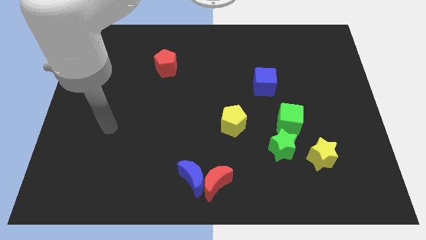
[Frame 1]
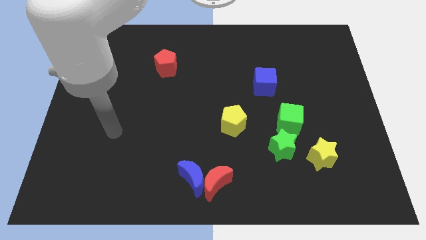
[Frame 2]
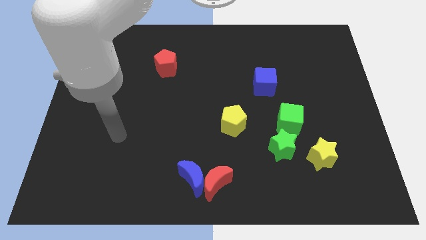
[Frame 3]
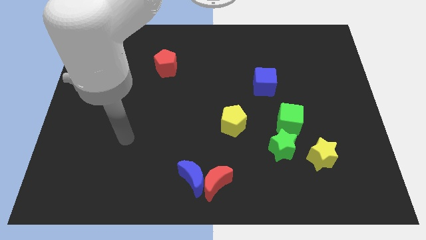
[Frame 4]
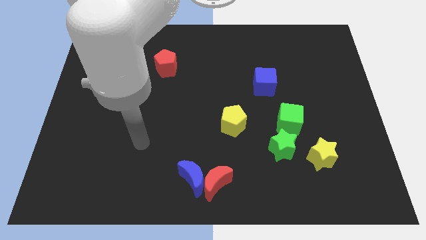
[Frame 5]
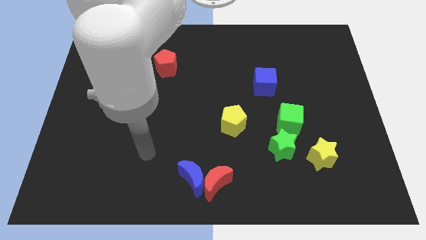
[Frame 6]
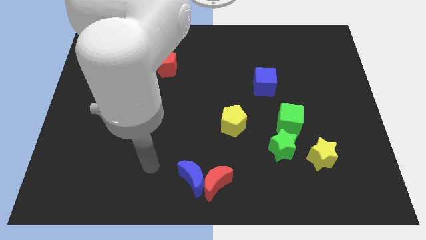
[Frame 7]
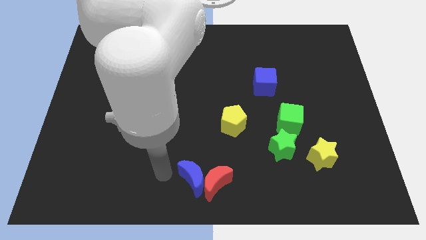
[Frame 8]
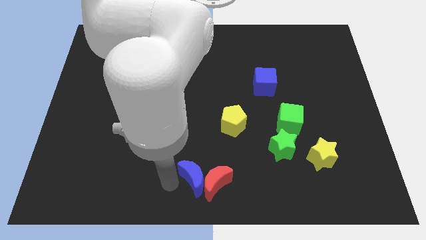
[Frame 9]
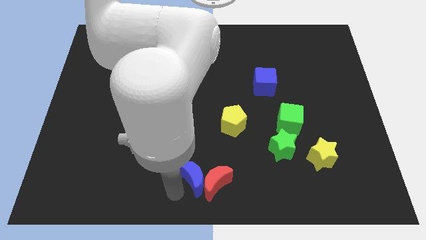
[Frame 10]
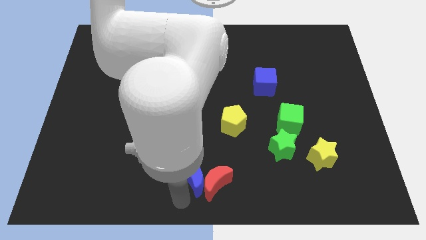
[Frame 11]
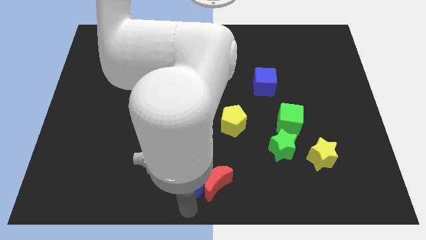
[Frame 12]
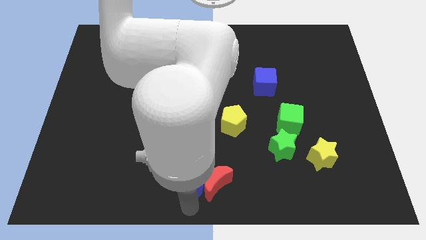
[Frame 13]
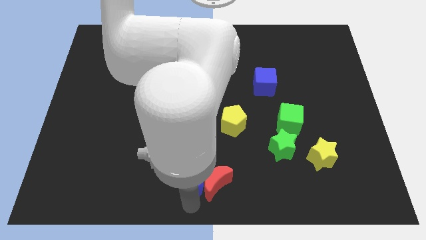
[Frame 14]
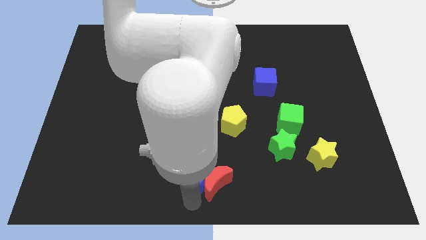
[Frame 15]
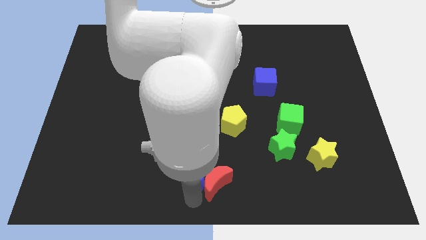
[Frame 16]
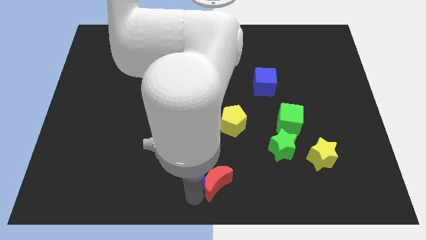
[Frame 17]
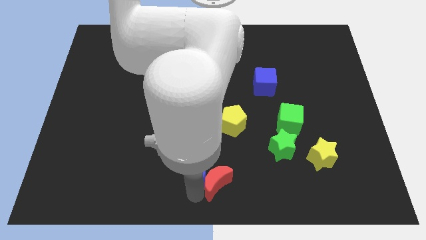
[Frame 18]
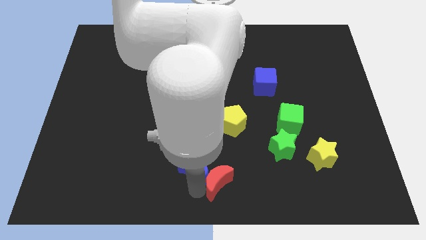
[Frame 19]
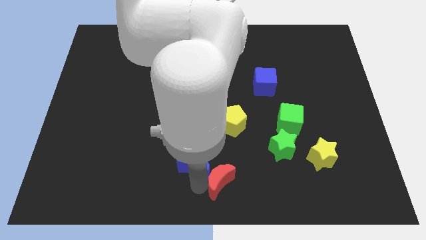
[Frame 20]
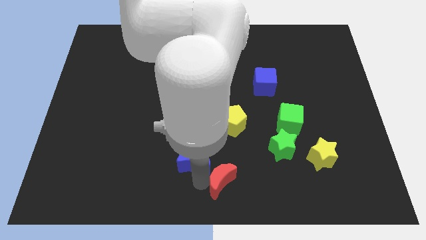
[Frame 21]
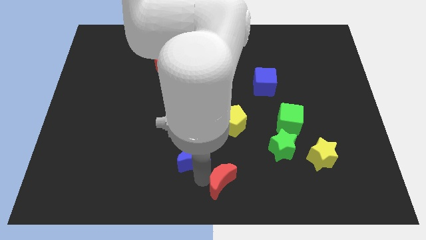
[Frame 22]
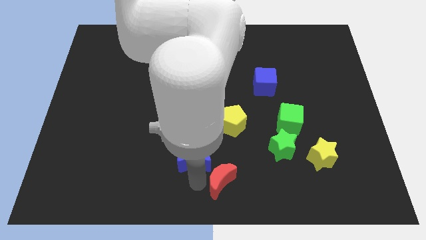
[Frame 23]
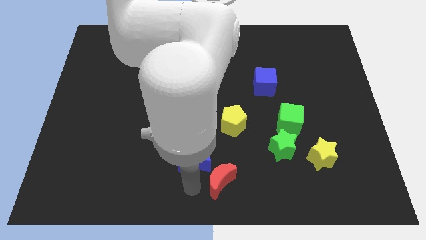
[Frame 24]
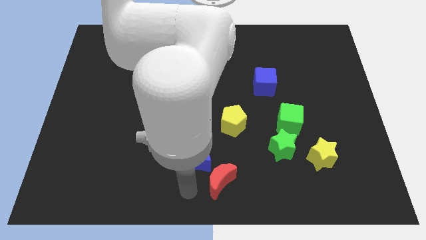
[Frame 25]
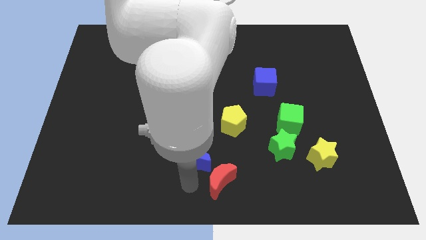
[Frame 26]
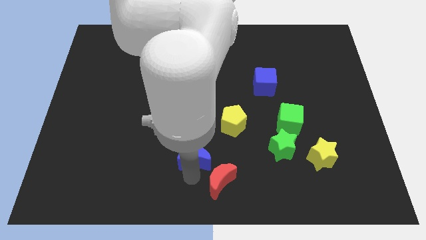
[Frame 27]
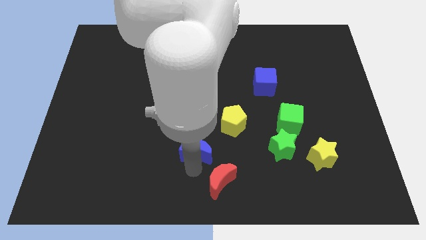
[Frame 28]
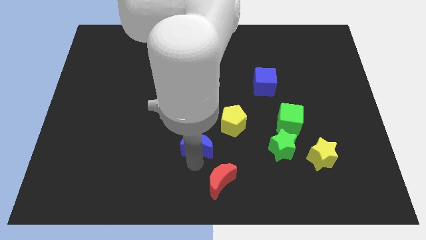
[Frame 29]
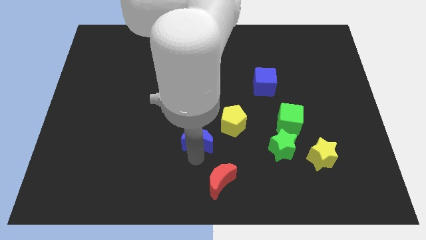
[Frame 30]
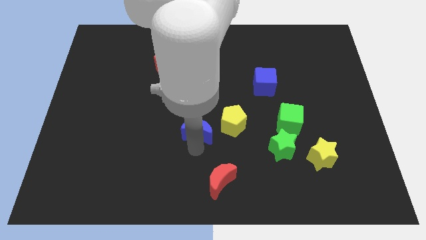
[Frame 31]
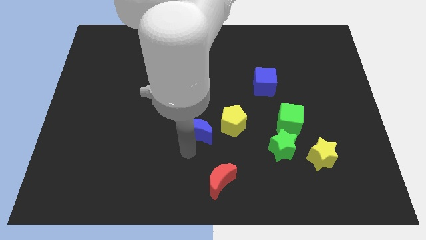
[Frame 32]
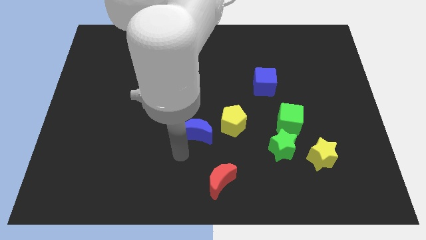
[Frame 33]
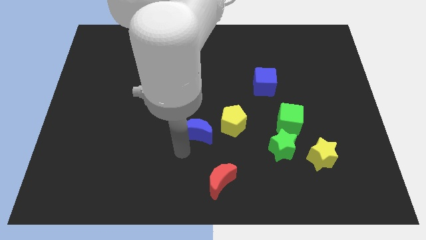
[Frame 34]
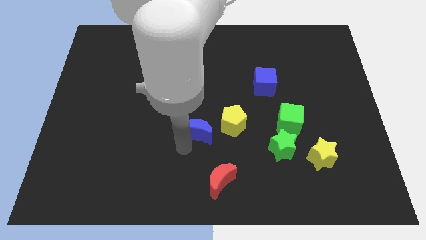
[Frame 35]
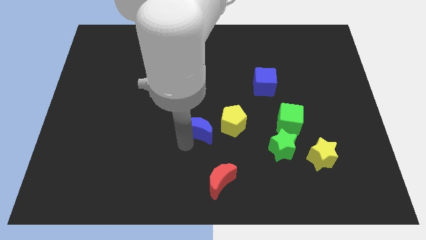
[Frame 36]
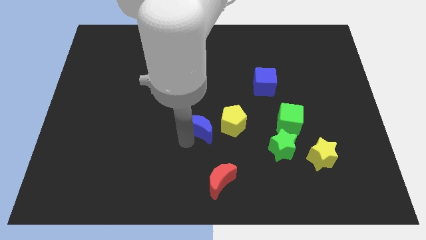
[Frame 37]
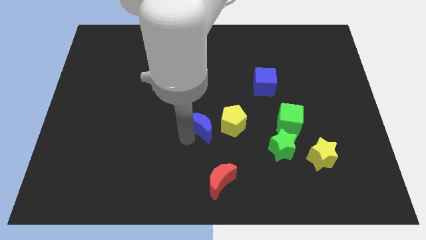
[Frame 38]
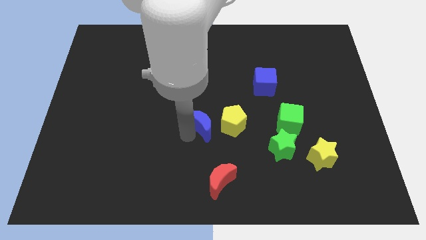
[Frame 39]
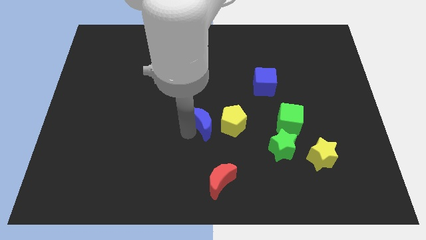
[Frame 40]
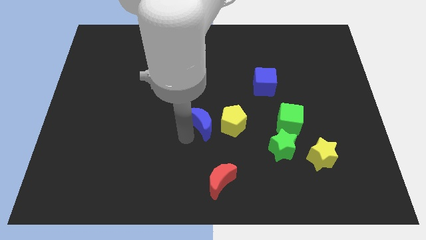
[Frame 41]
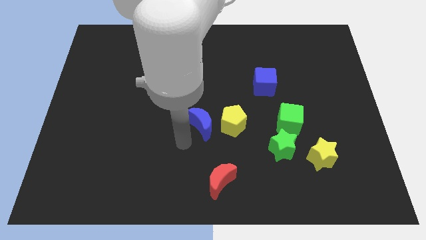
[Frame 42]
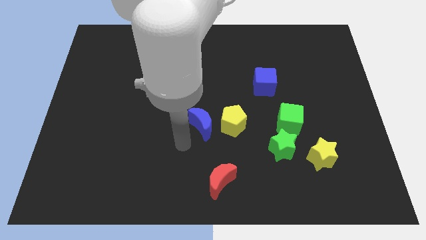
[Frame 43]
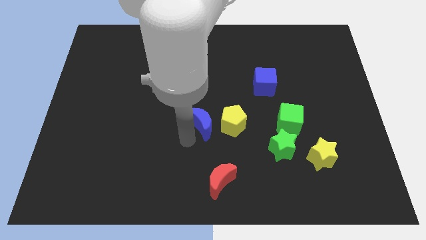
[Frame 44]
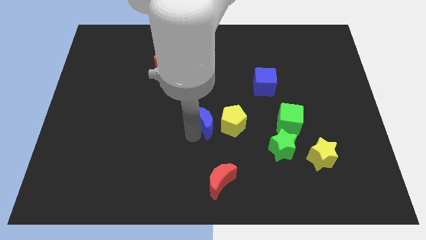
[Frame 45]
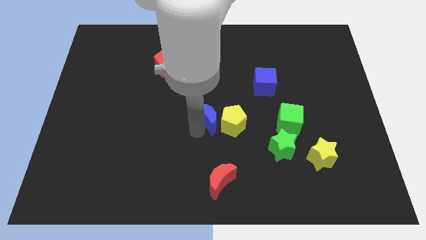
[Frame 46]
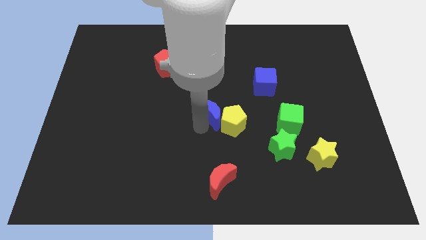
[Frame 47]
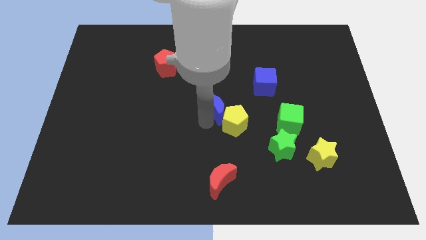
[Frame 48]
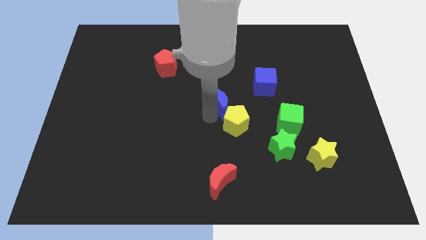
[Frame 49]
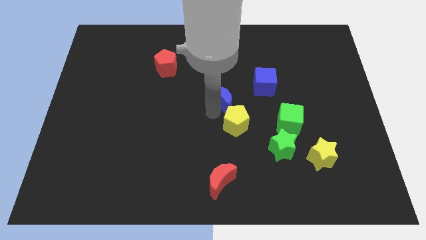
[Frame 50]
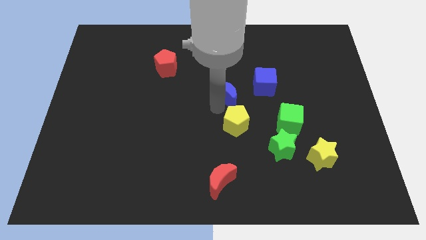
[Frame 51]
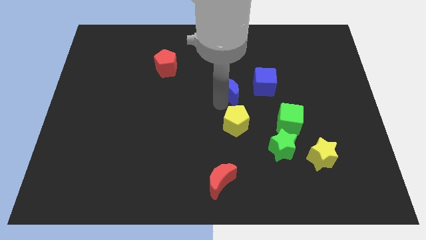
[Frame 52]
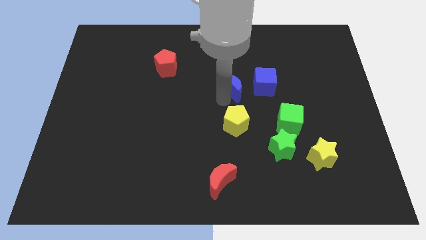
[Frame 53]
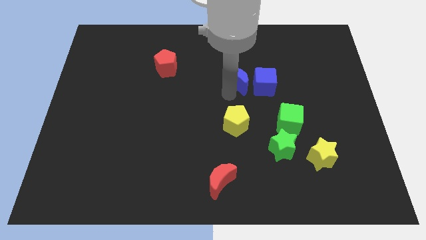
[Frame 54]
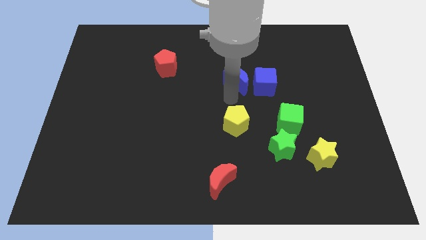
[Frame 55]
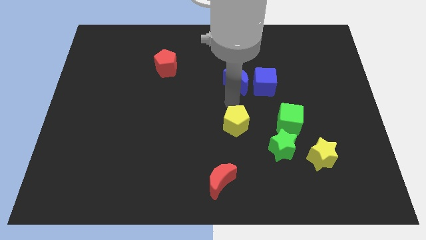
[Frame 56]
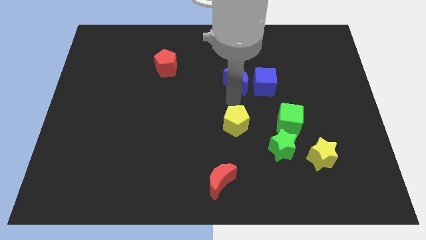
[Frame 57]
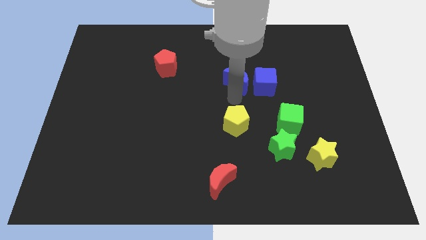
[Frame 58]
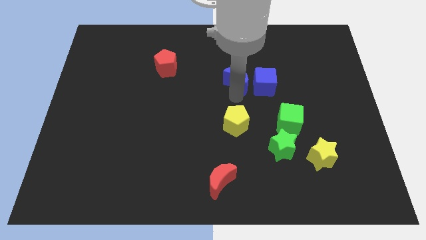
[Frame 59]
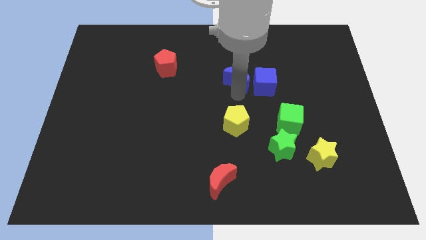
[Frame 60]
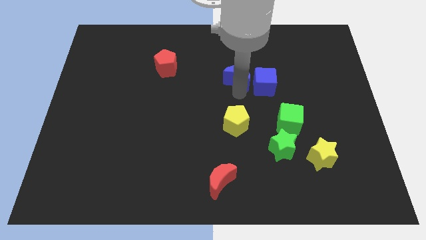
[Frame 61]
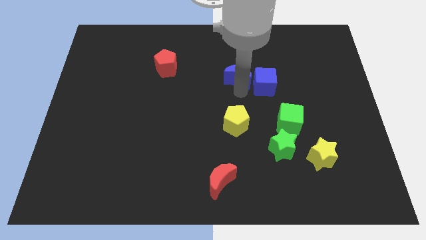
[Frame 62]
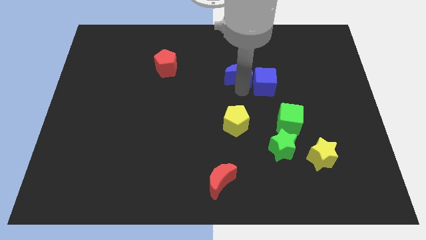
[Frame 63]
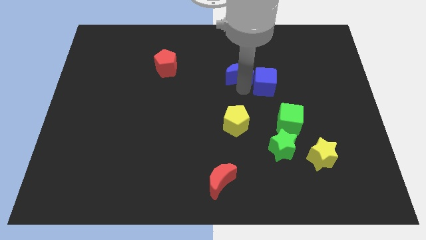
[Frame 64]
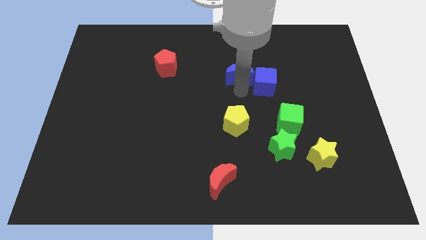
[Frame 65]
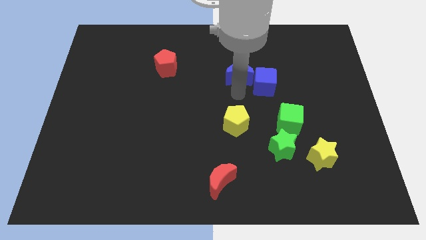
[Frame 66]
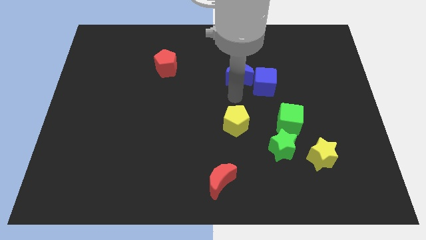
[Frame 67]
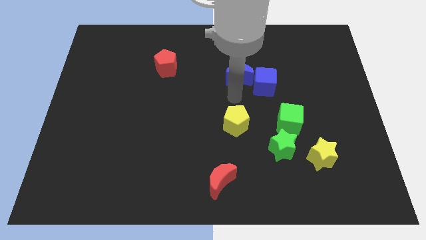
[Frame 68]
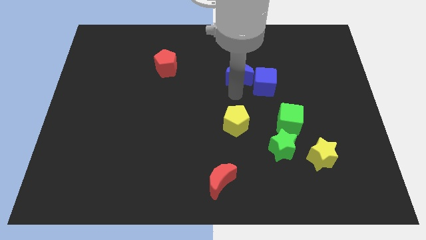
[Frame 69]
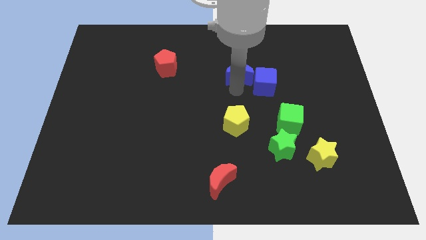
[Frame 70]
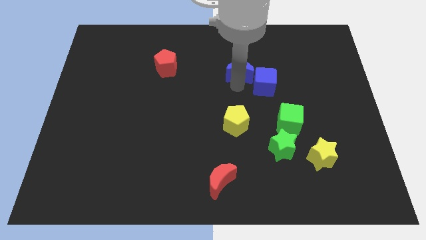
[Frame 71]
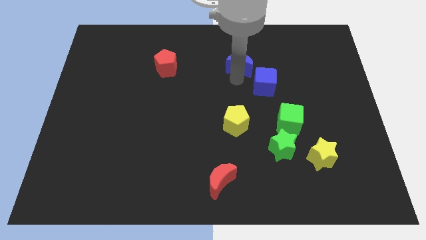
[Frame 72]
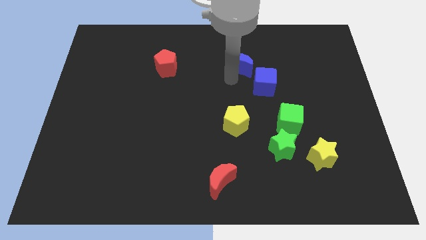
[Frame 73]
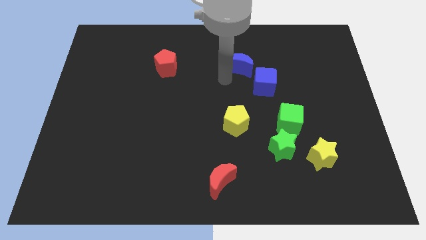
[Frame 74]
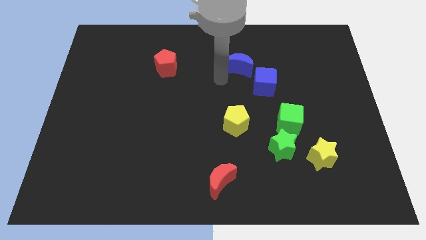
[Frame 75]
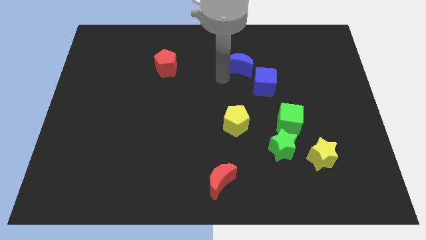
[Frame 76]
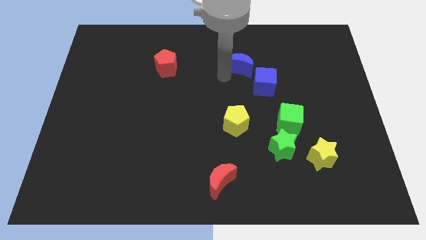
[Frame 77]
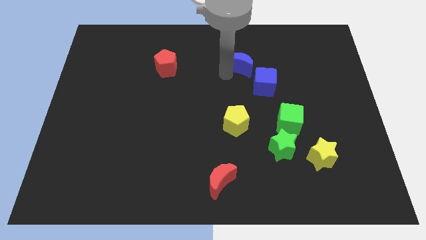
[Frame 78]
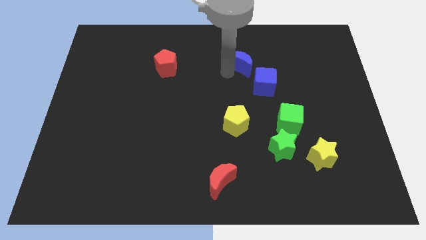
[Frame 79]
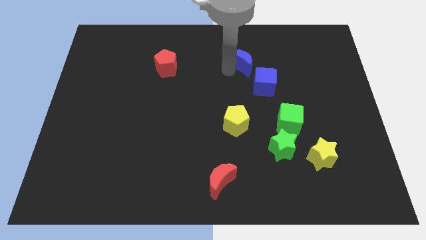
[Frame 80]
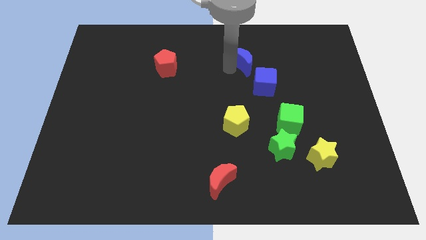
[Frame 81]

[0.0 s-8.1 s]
put the blue moon to the top side of the blue cube
